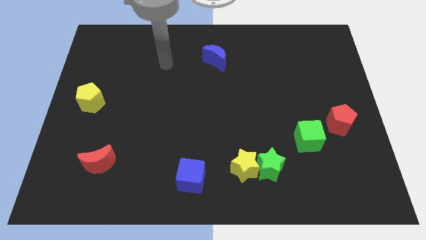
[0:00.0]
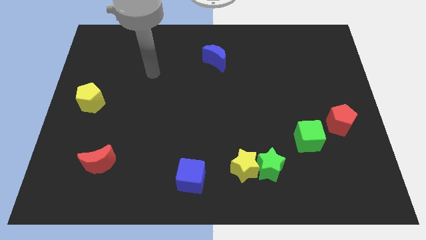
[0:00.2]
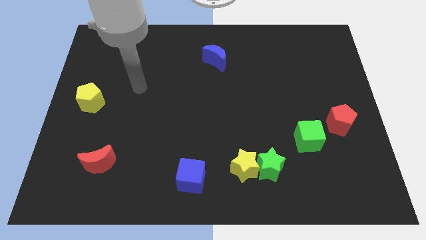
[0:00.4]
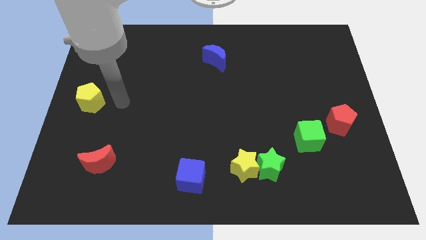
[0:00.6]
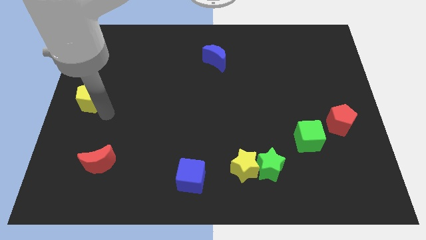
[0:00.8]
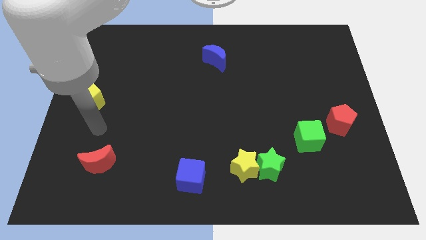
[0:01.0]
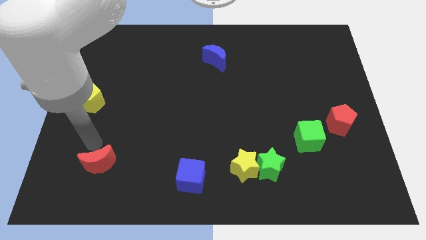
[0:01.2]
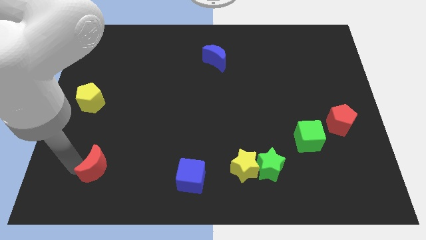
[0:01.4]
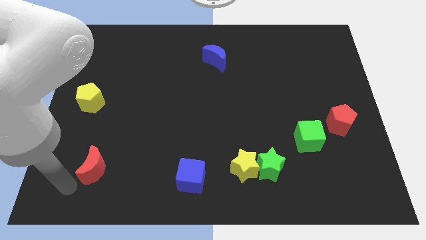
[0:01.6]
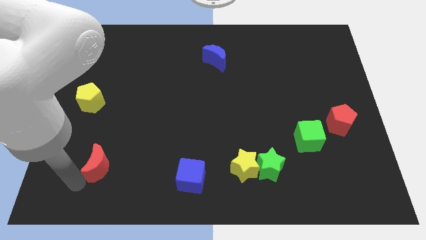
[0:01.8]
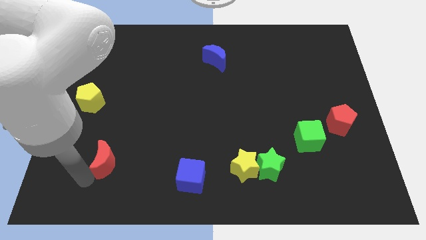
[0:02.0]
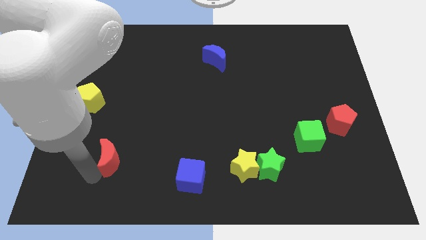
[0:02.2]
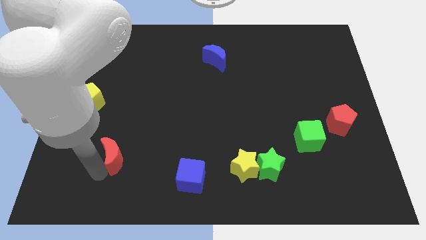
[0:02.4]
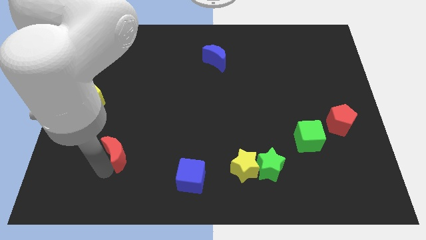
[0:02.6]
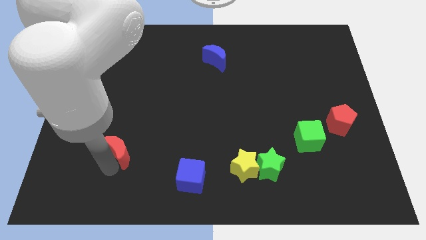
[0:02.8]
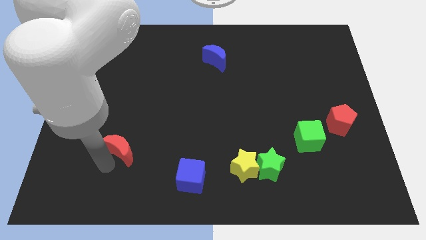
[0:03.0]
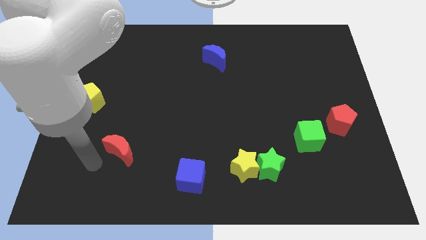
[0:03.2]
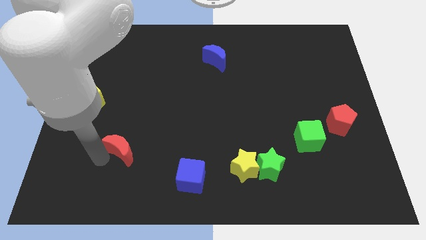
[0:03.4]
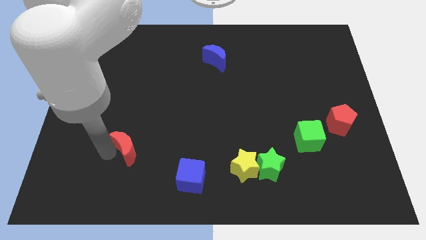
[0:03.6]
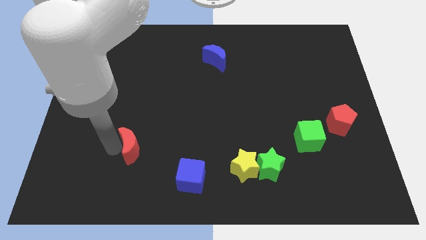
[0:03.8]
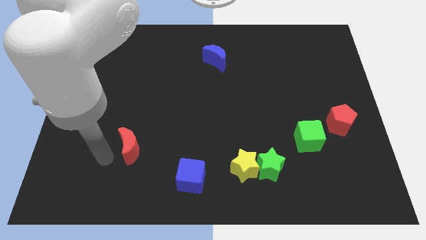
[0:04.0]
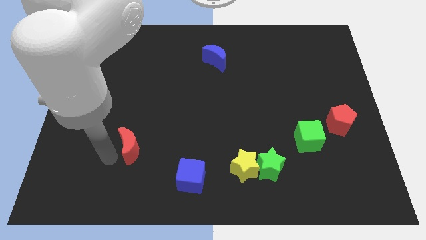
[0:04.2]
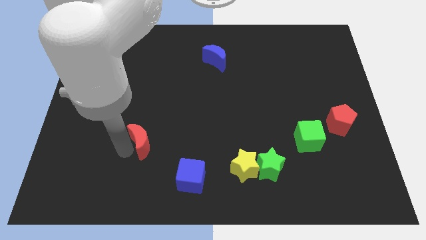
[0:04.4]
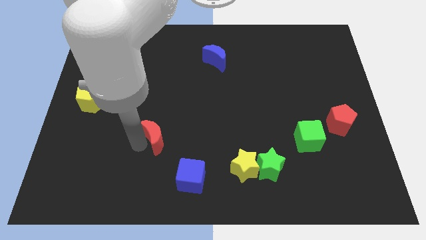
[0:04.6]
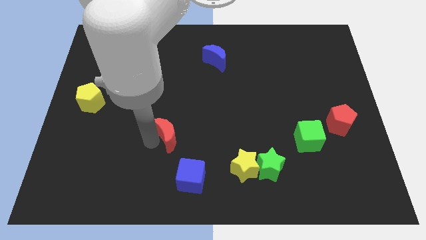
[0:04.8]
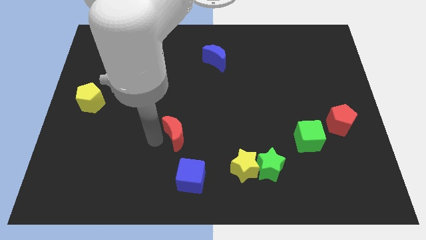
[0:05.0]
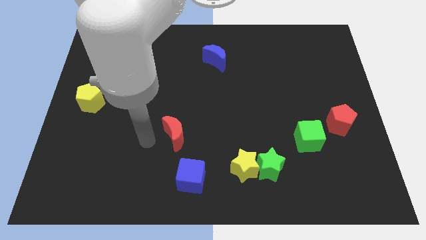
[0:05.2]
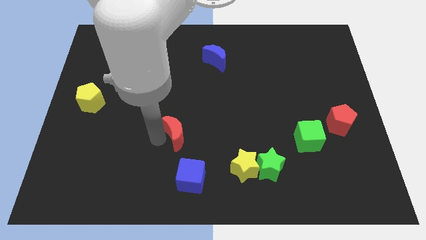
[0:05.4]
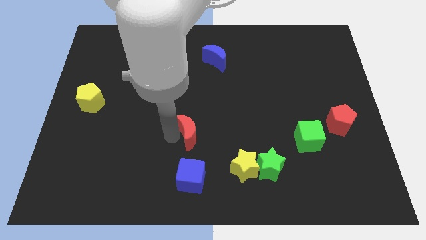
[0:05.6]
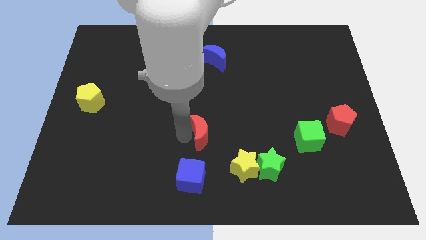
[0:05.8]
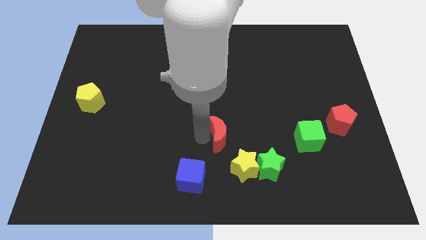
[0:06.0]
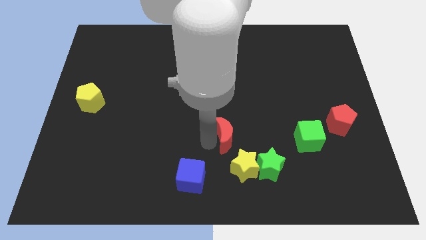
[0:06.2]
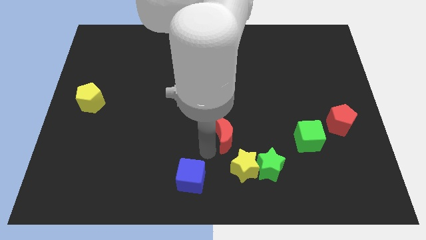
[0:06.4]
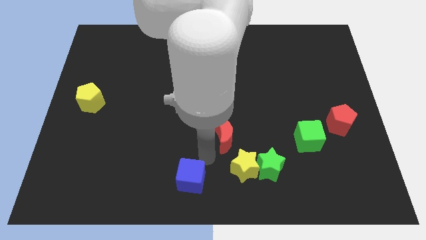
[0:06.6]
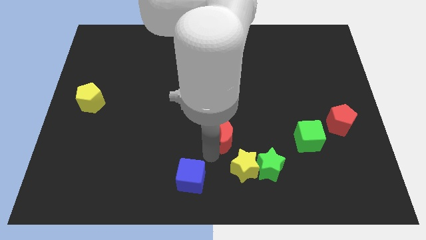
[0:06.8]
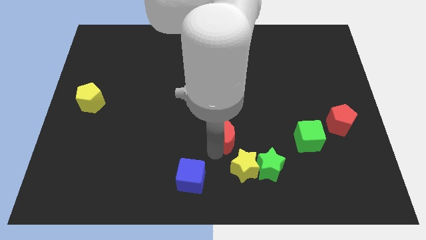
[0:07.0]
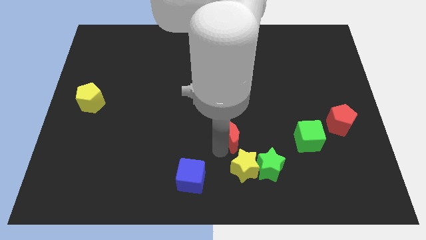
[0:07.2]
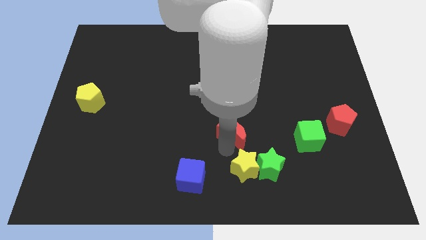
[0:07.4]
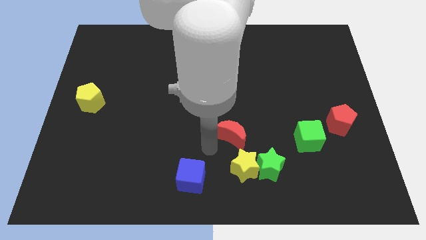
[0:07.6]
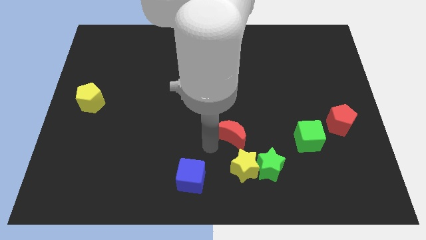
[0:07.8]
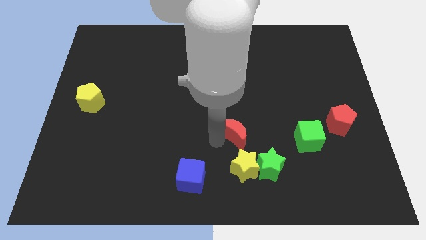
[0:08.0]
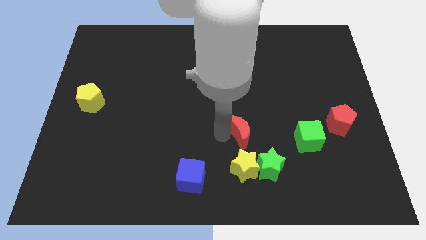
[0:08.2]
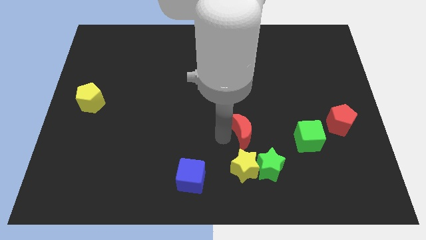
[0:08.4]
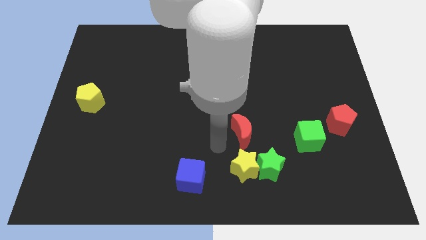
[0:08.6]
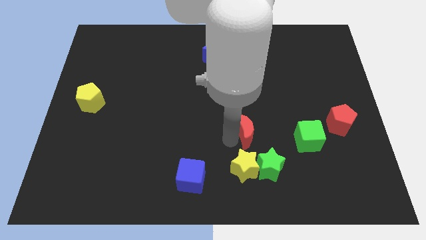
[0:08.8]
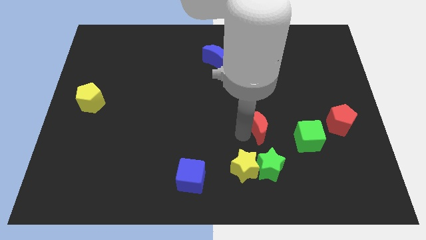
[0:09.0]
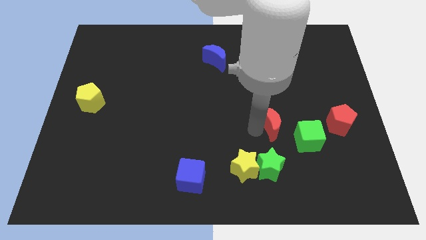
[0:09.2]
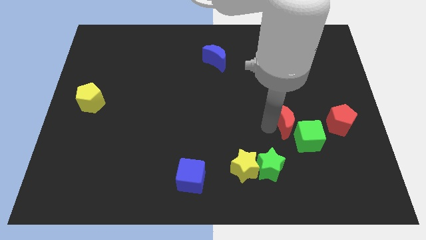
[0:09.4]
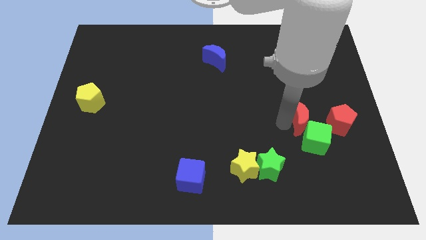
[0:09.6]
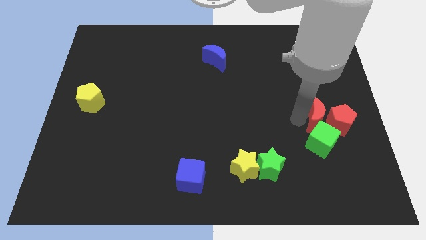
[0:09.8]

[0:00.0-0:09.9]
push the red moon close to the red pentagon

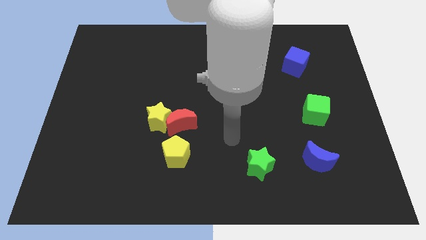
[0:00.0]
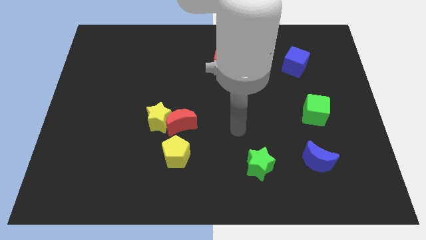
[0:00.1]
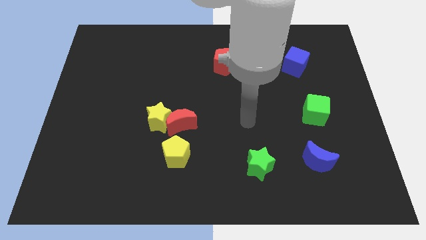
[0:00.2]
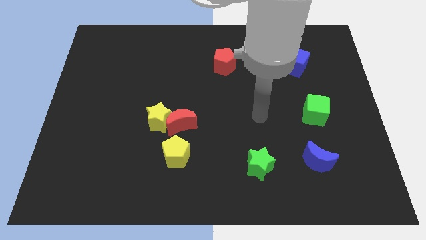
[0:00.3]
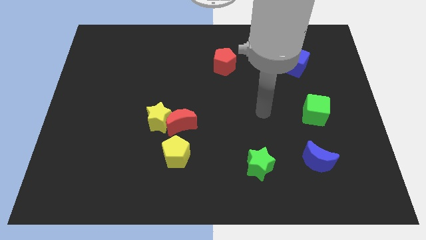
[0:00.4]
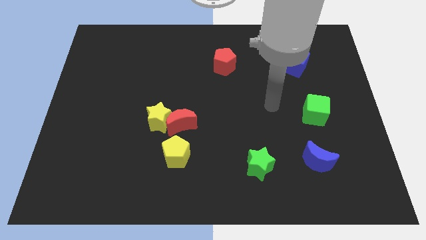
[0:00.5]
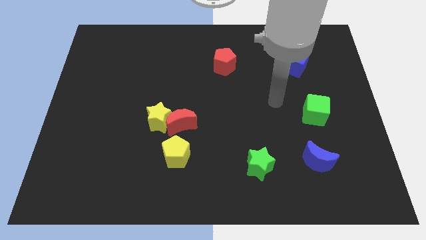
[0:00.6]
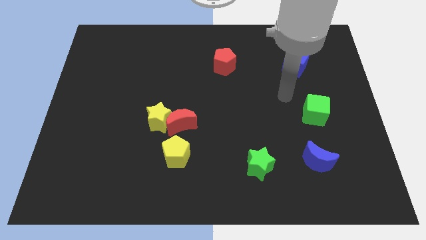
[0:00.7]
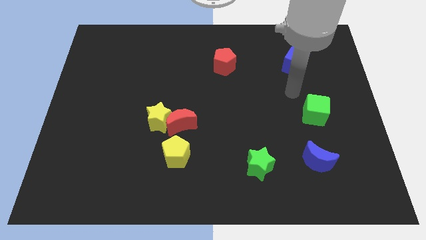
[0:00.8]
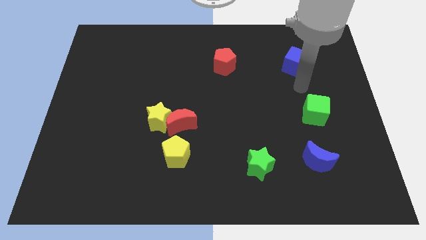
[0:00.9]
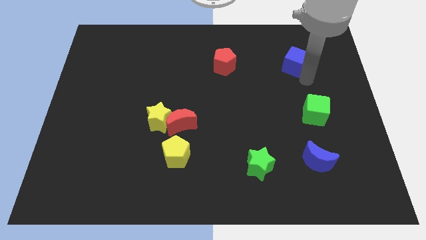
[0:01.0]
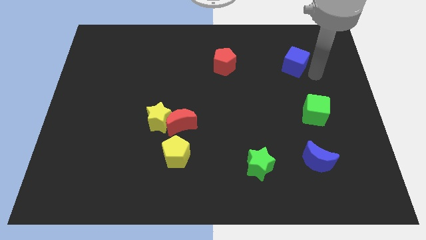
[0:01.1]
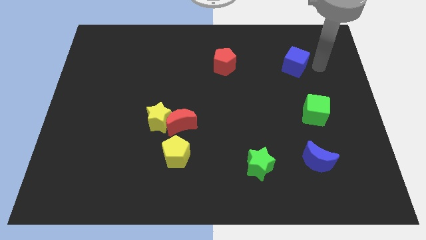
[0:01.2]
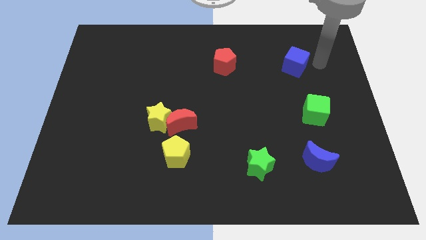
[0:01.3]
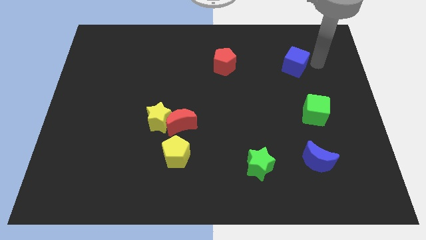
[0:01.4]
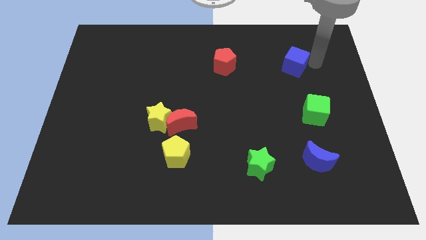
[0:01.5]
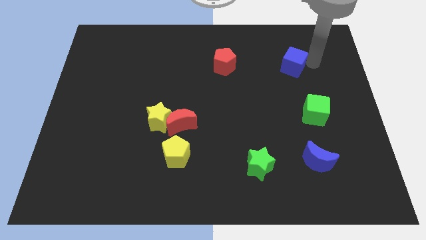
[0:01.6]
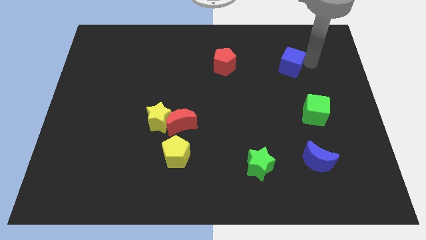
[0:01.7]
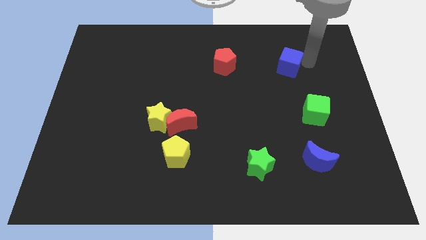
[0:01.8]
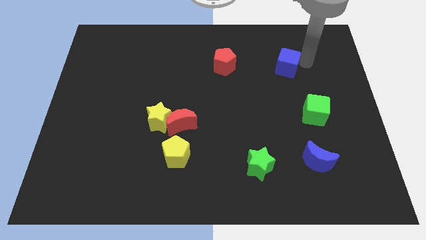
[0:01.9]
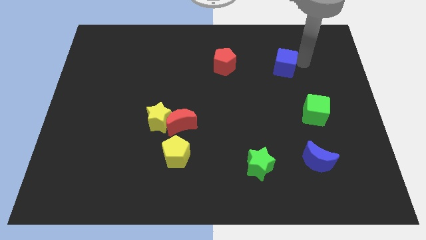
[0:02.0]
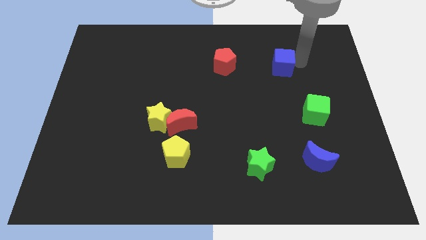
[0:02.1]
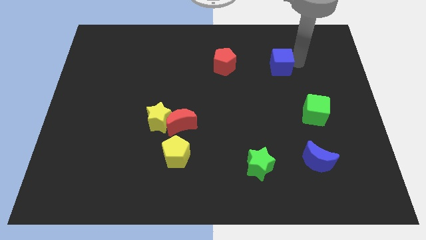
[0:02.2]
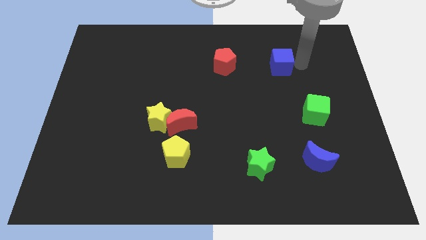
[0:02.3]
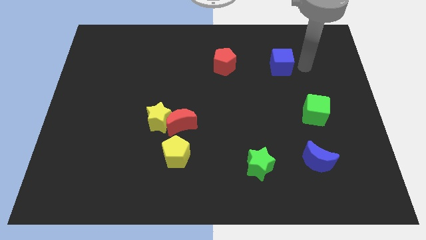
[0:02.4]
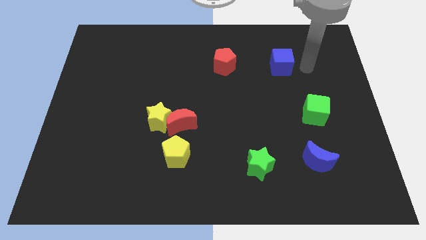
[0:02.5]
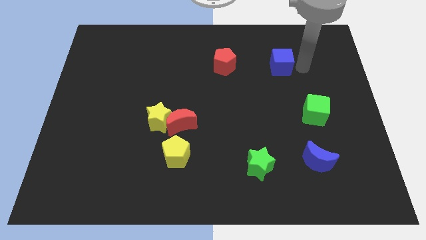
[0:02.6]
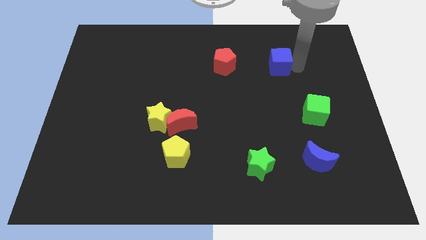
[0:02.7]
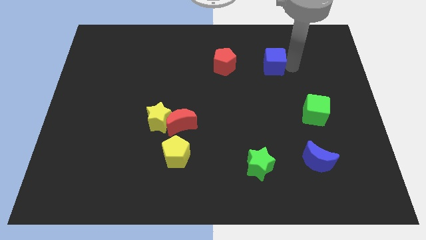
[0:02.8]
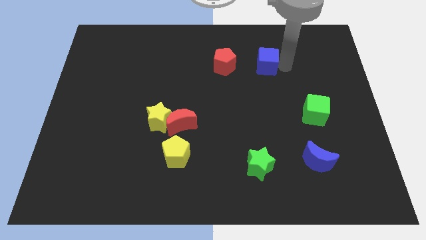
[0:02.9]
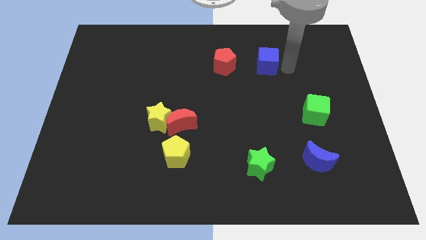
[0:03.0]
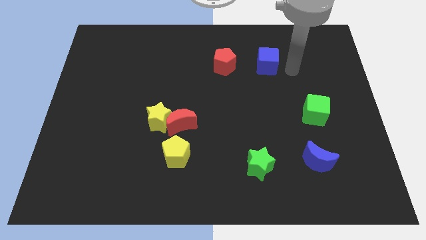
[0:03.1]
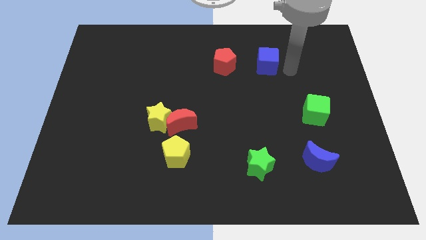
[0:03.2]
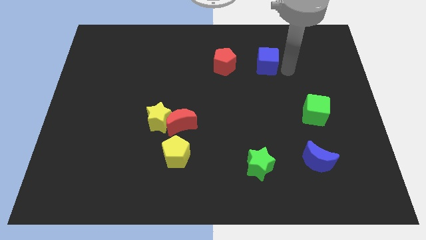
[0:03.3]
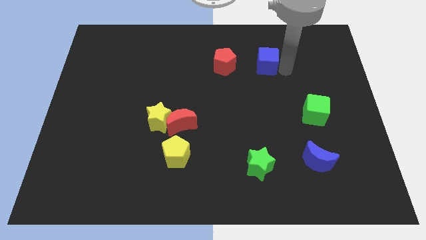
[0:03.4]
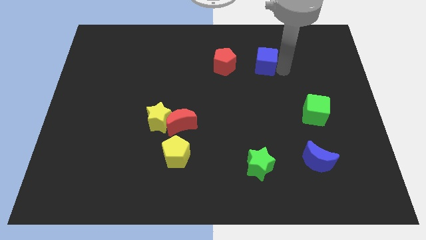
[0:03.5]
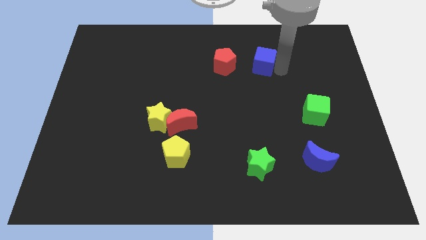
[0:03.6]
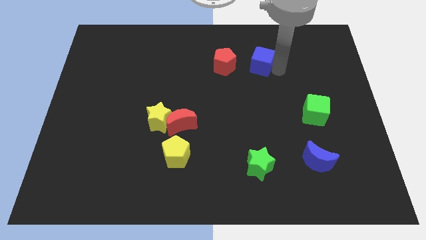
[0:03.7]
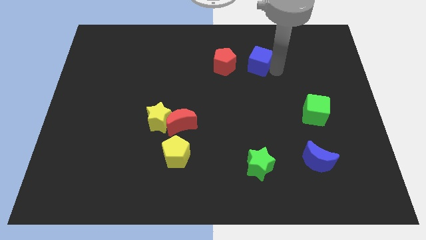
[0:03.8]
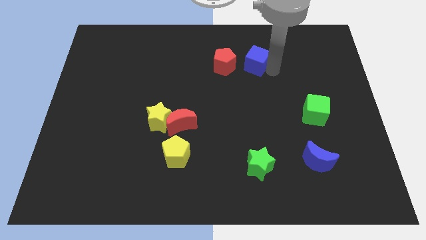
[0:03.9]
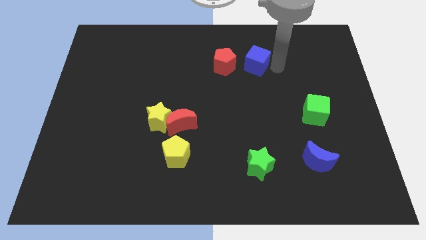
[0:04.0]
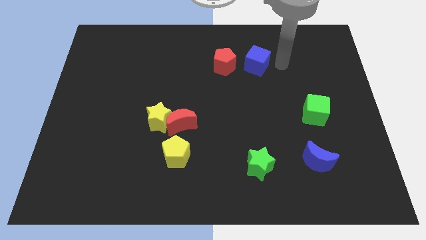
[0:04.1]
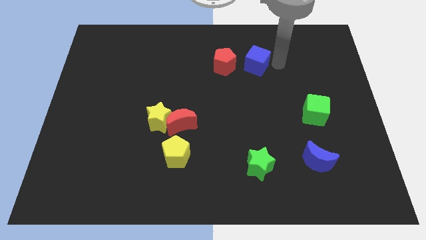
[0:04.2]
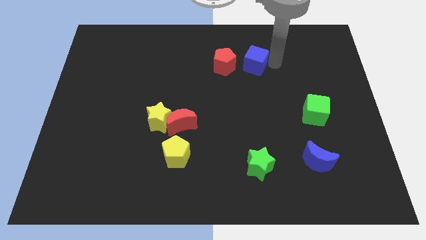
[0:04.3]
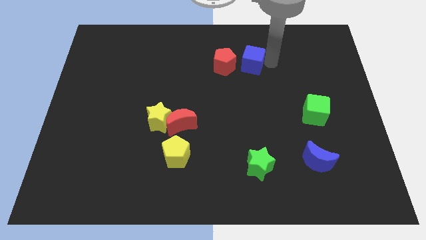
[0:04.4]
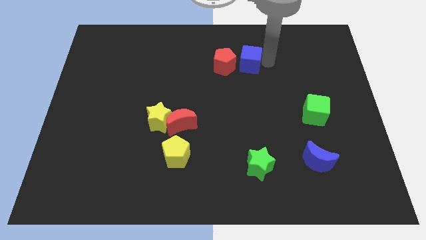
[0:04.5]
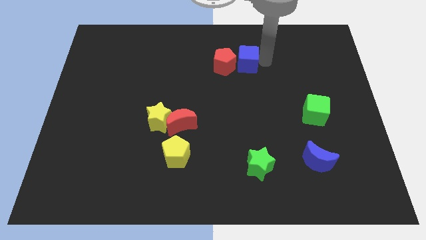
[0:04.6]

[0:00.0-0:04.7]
push the blue cube towards the red pentagon
